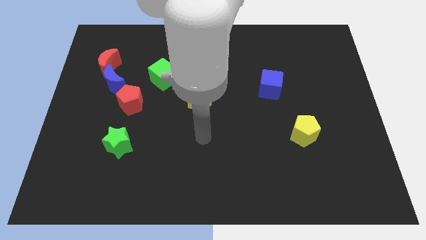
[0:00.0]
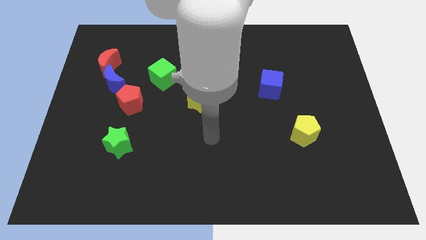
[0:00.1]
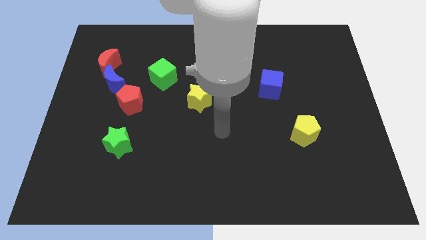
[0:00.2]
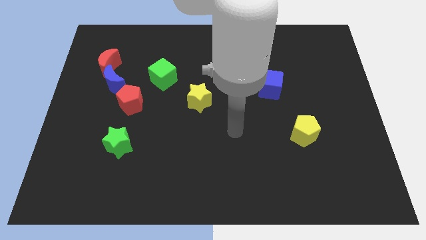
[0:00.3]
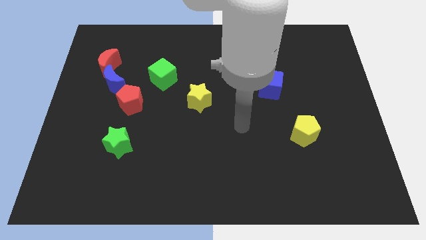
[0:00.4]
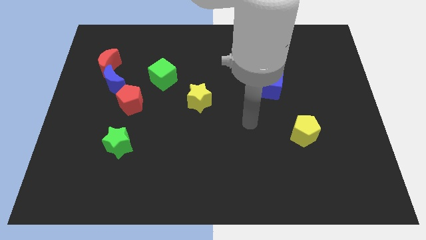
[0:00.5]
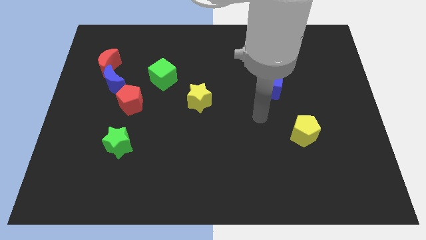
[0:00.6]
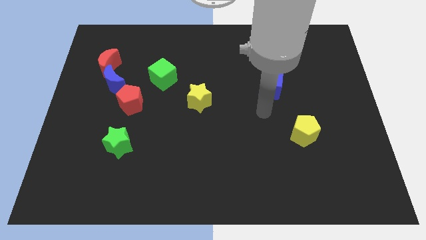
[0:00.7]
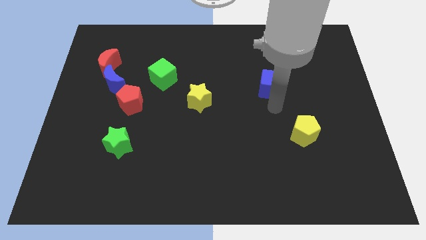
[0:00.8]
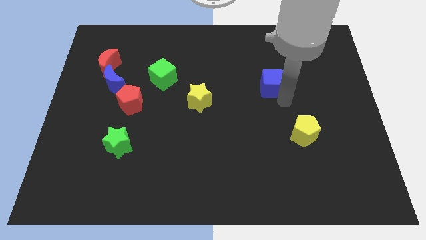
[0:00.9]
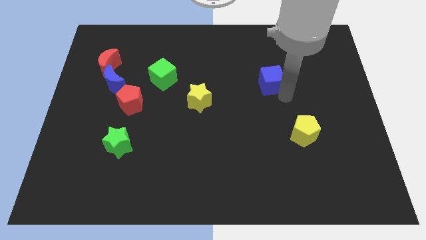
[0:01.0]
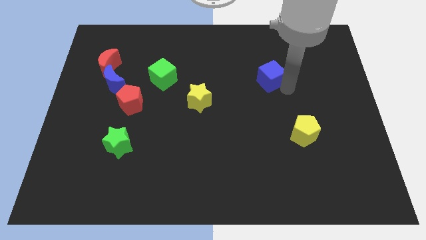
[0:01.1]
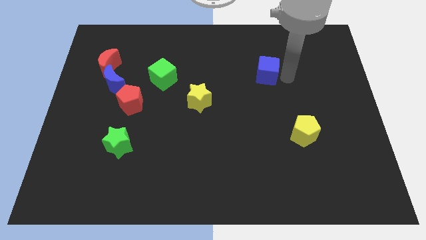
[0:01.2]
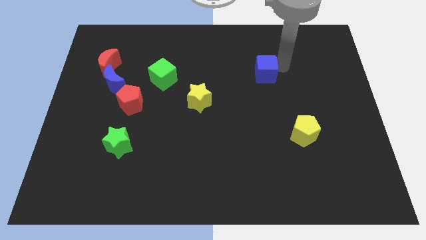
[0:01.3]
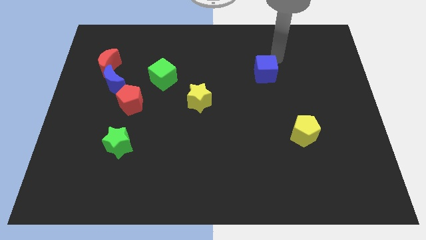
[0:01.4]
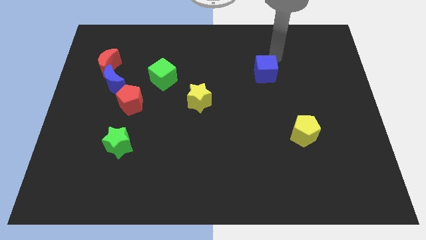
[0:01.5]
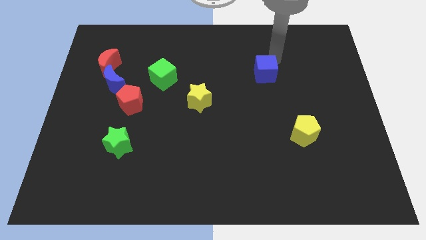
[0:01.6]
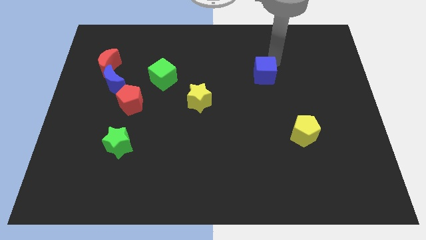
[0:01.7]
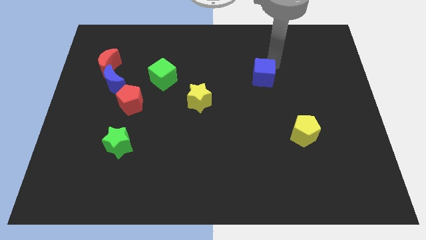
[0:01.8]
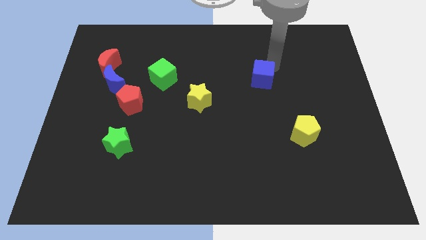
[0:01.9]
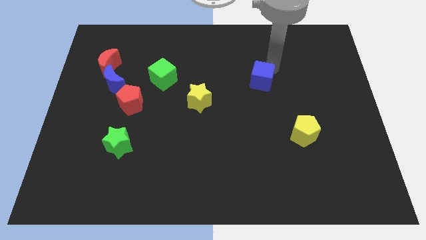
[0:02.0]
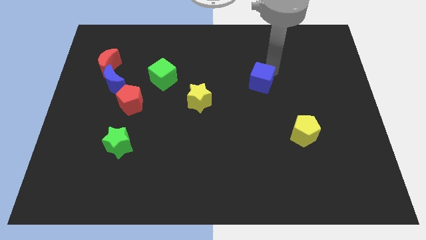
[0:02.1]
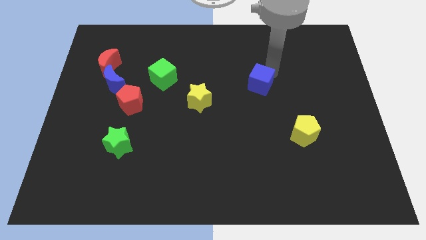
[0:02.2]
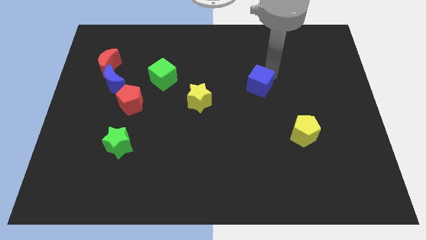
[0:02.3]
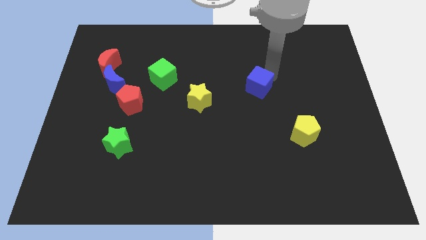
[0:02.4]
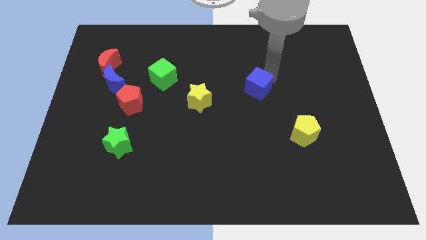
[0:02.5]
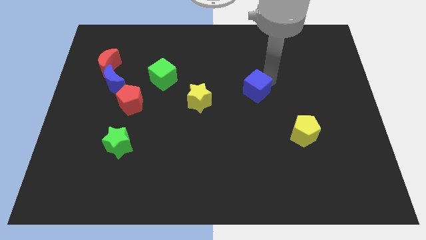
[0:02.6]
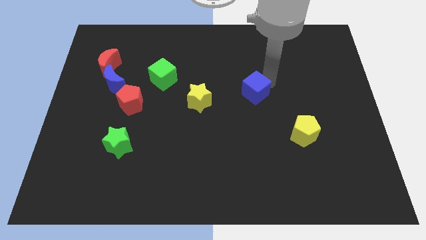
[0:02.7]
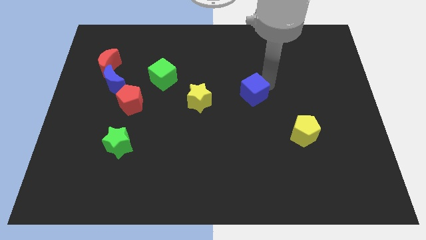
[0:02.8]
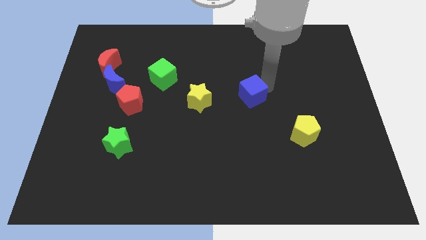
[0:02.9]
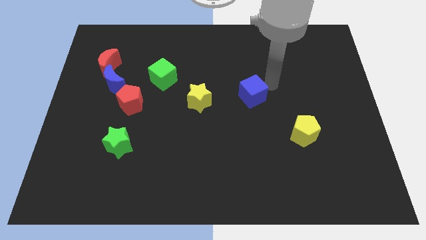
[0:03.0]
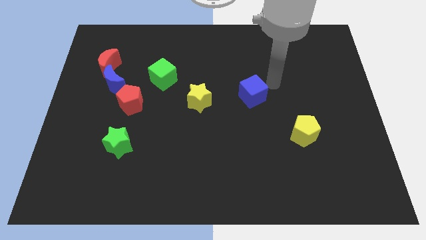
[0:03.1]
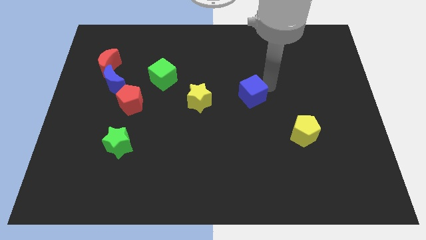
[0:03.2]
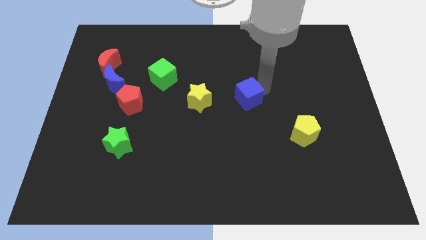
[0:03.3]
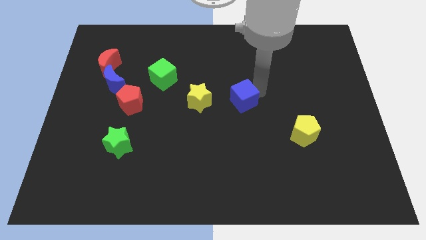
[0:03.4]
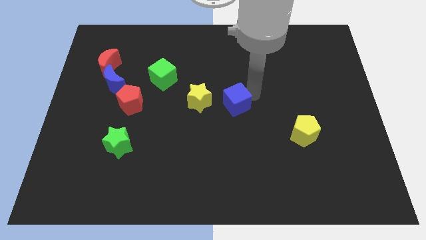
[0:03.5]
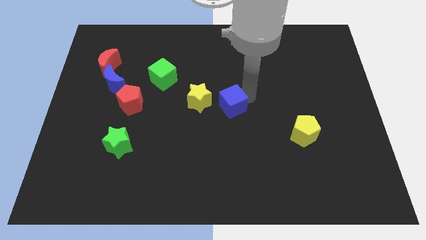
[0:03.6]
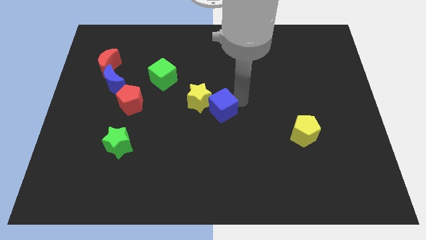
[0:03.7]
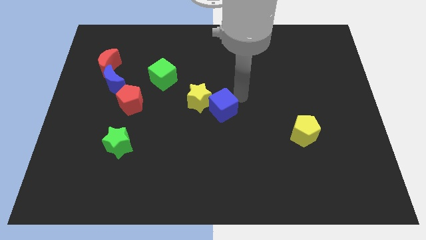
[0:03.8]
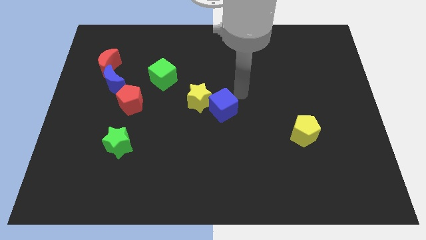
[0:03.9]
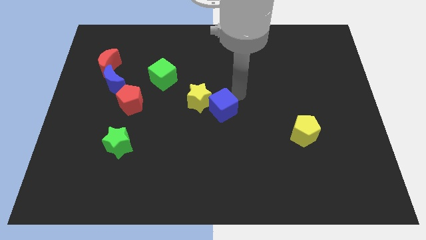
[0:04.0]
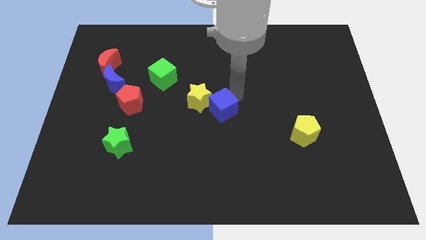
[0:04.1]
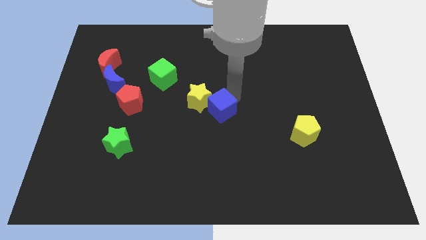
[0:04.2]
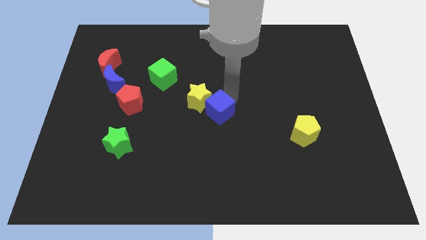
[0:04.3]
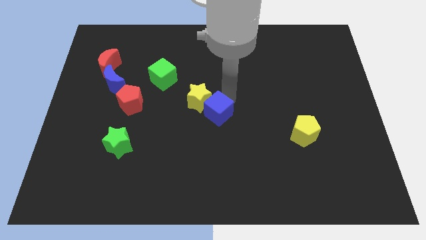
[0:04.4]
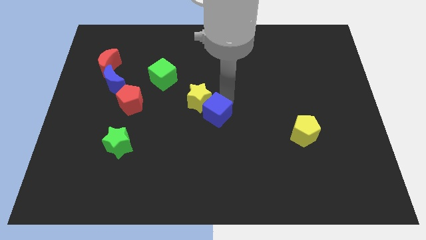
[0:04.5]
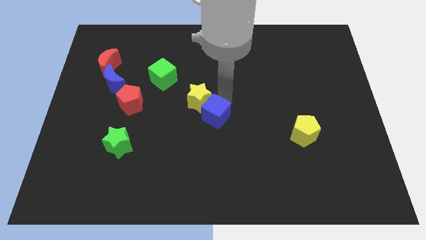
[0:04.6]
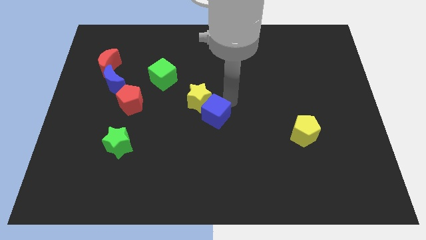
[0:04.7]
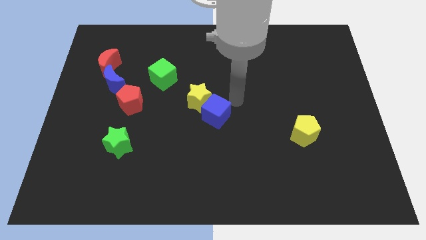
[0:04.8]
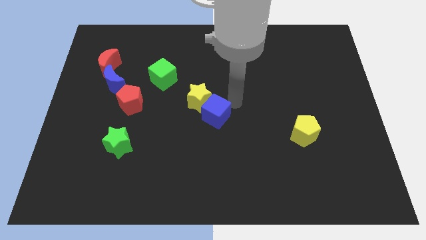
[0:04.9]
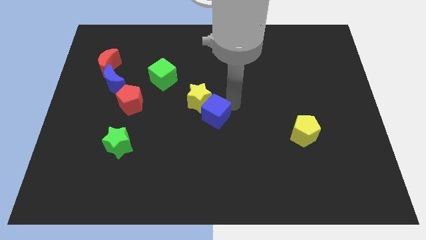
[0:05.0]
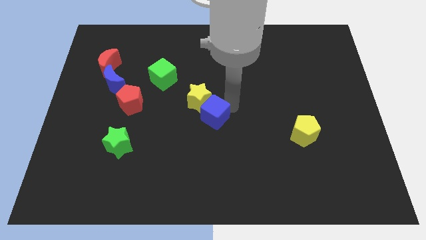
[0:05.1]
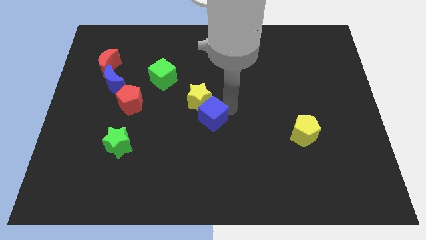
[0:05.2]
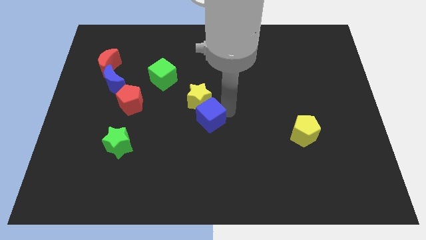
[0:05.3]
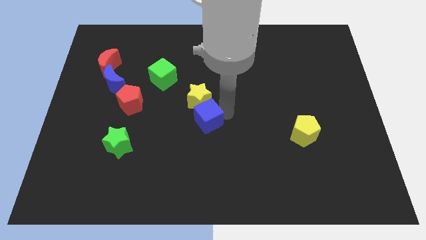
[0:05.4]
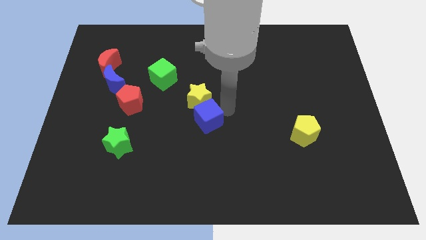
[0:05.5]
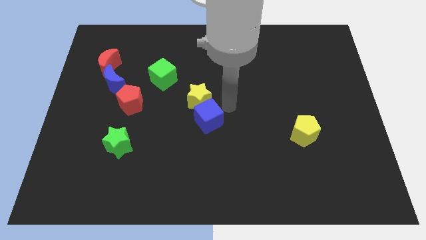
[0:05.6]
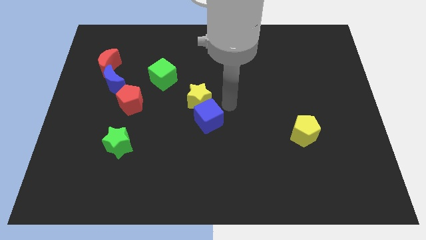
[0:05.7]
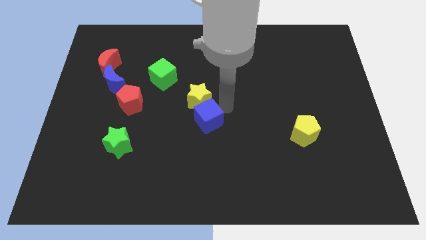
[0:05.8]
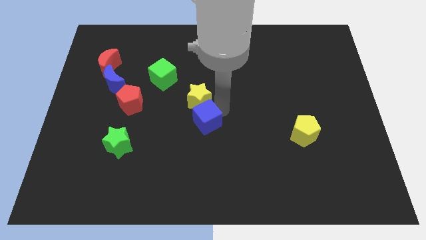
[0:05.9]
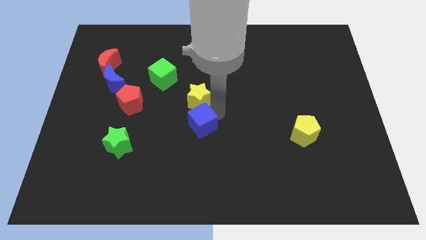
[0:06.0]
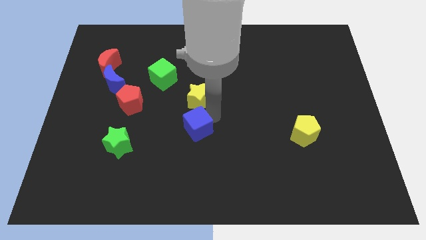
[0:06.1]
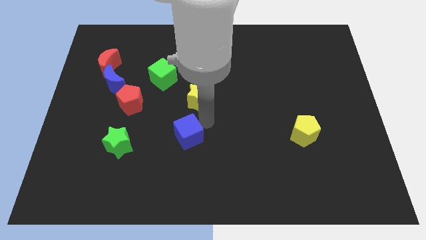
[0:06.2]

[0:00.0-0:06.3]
slide the blue cube just right of the green star
